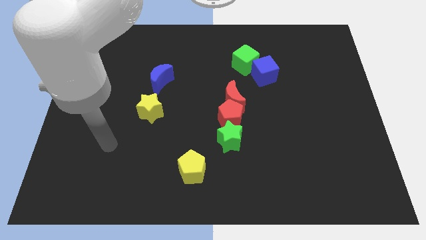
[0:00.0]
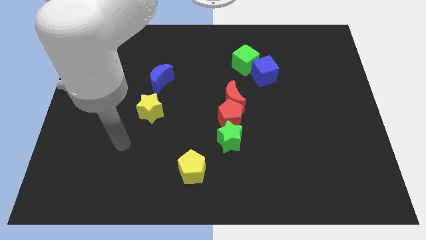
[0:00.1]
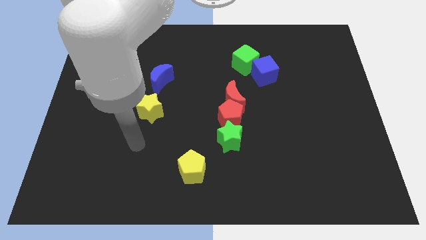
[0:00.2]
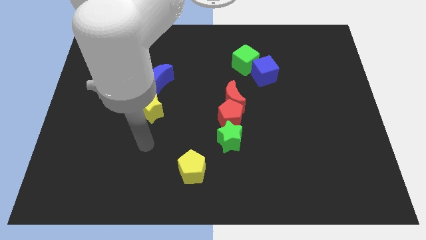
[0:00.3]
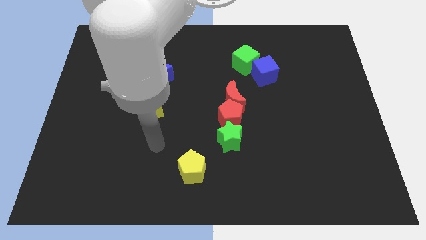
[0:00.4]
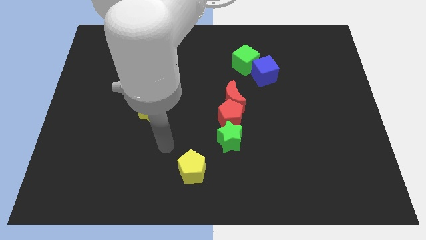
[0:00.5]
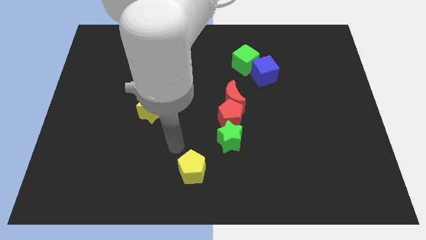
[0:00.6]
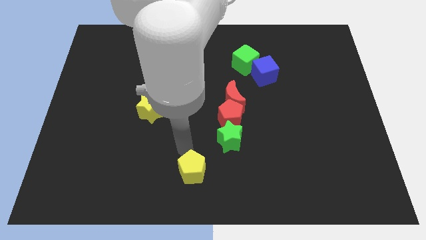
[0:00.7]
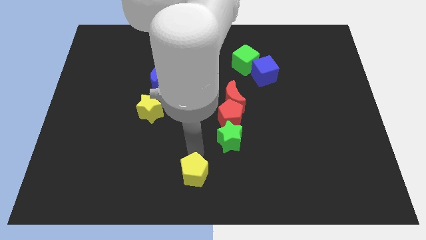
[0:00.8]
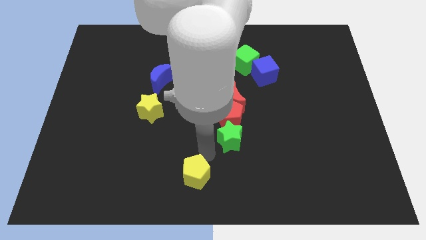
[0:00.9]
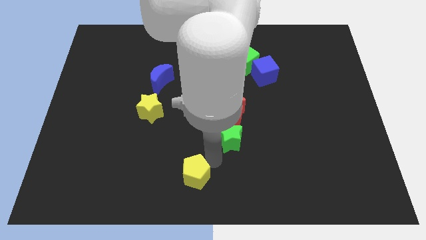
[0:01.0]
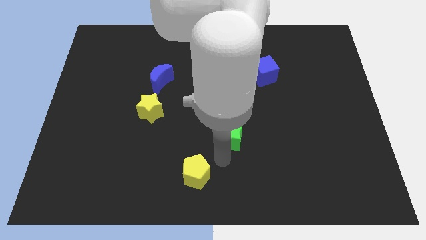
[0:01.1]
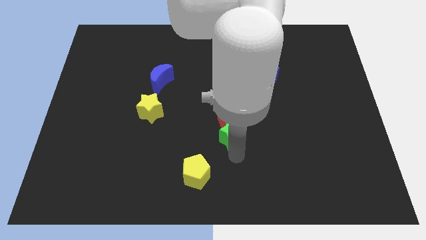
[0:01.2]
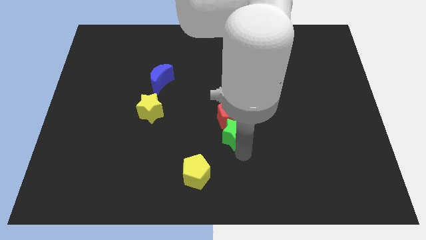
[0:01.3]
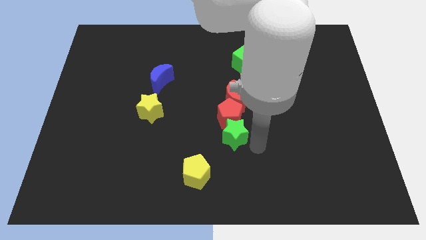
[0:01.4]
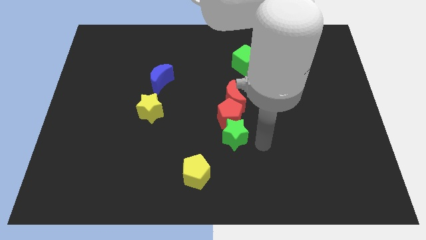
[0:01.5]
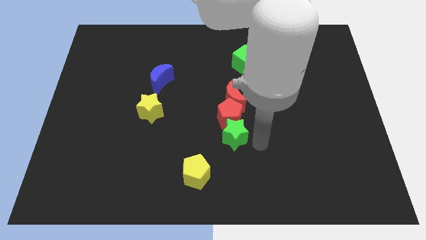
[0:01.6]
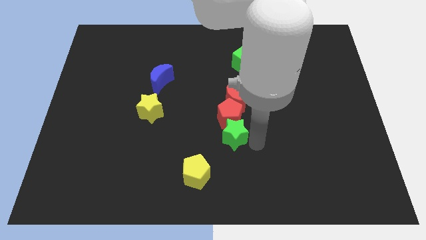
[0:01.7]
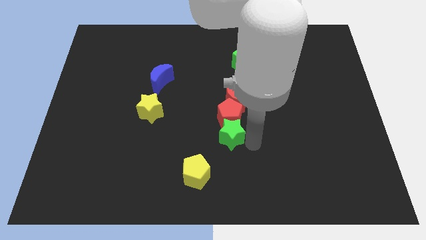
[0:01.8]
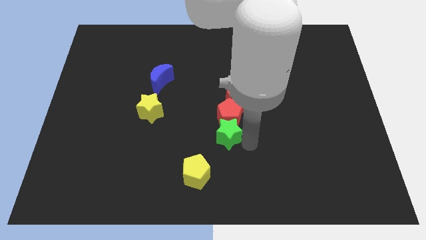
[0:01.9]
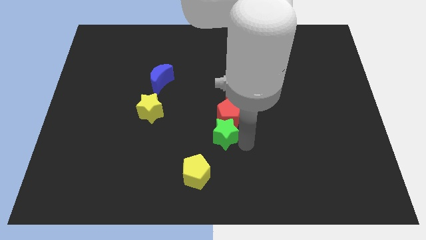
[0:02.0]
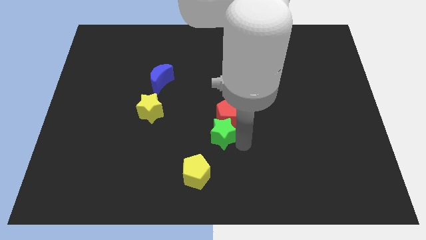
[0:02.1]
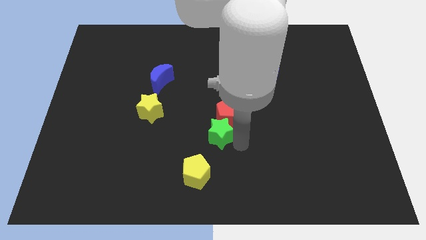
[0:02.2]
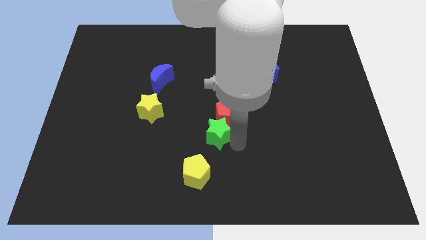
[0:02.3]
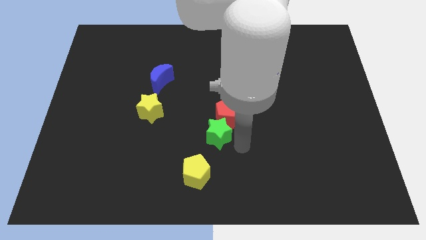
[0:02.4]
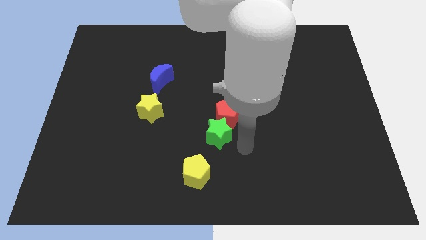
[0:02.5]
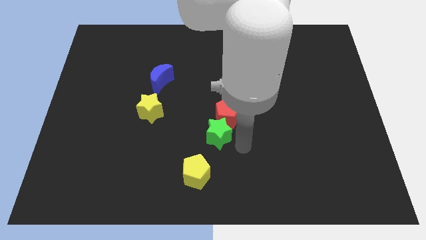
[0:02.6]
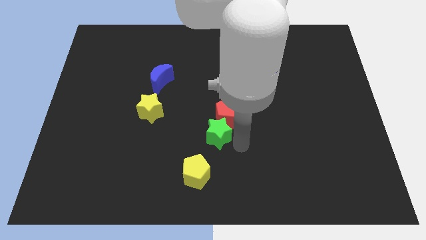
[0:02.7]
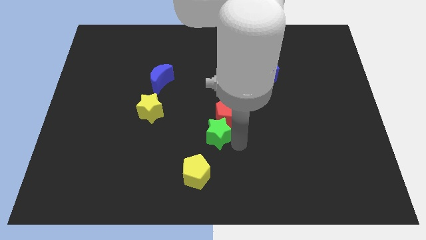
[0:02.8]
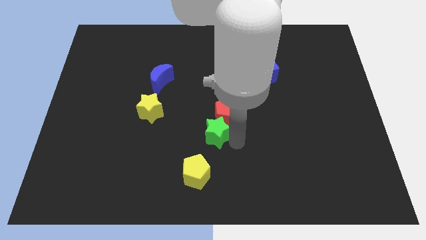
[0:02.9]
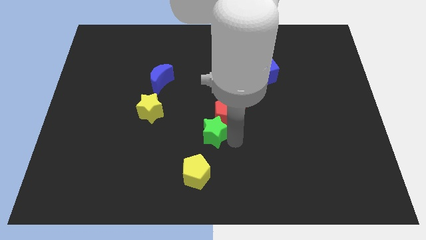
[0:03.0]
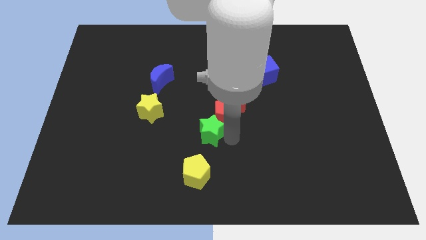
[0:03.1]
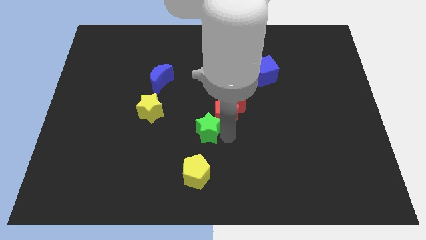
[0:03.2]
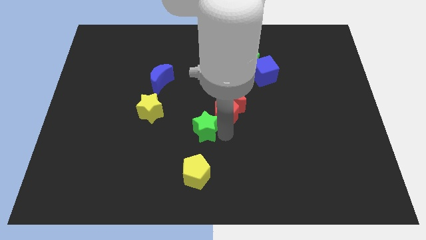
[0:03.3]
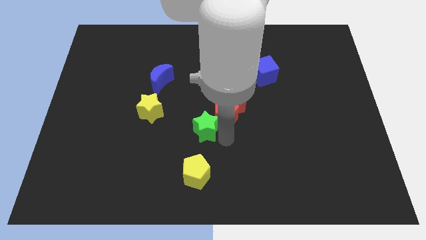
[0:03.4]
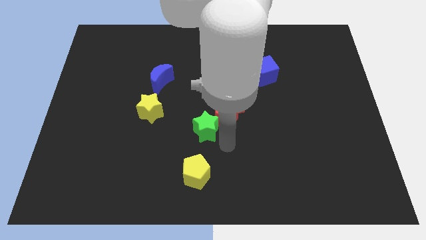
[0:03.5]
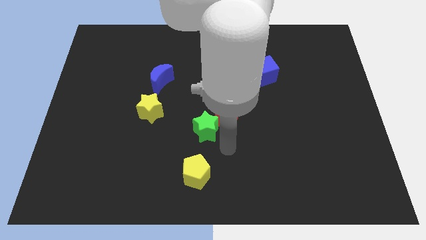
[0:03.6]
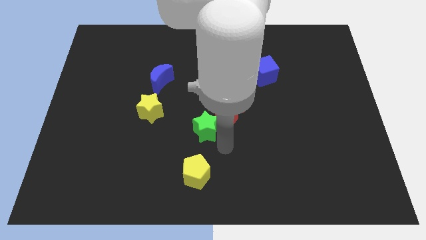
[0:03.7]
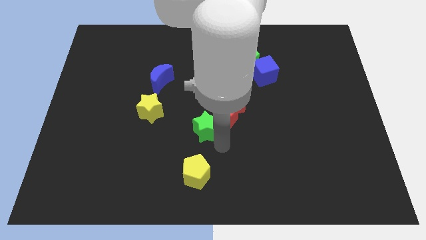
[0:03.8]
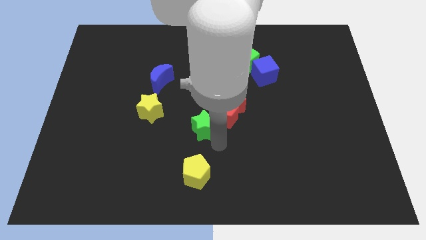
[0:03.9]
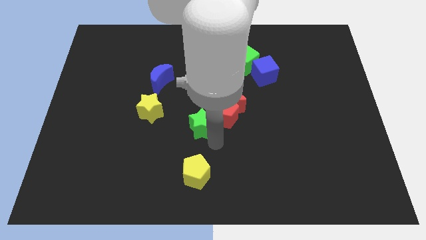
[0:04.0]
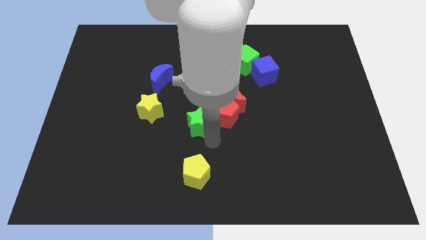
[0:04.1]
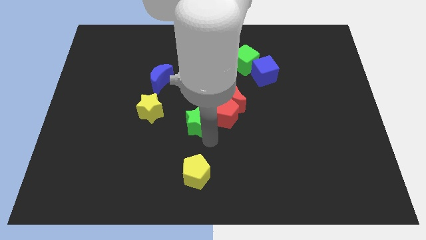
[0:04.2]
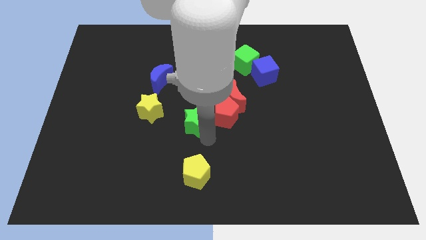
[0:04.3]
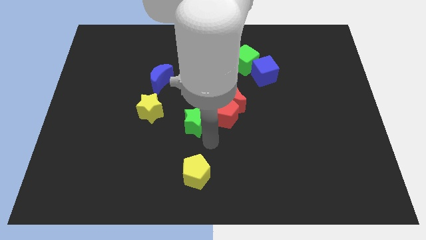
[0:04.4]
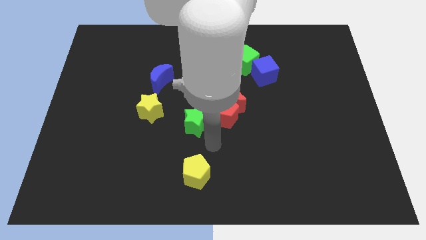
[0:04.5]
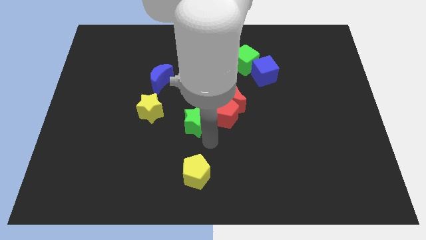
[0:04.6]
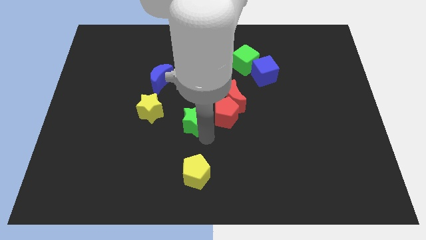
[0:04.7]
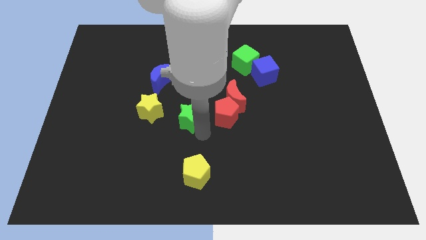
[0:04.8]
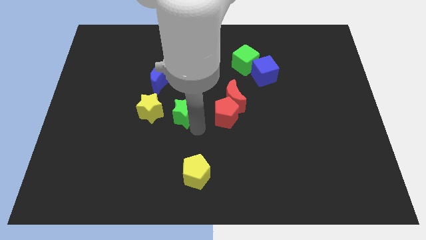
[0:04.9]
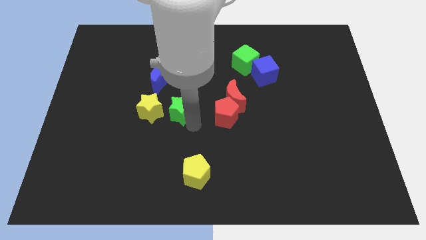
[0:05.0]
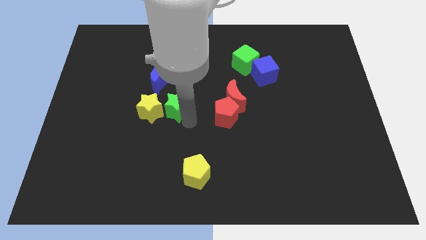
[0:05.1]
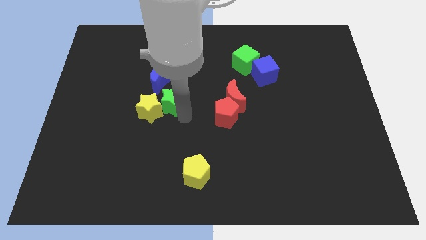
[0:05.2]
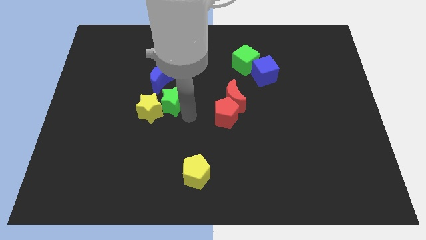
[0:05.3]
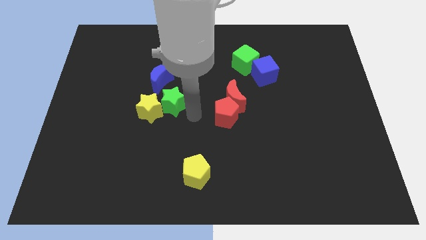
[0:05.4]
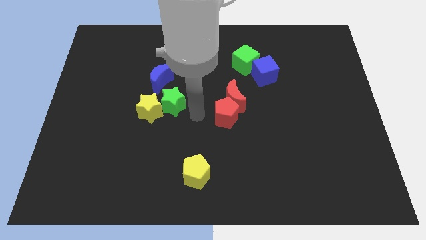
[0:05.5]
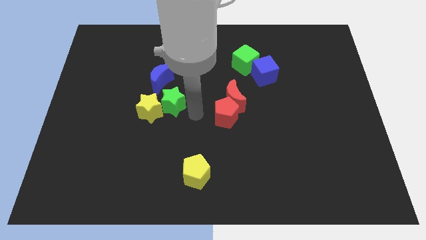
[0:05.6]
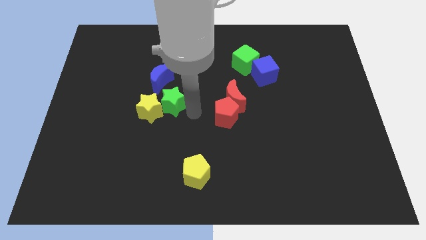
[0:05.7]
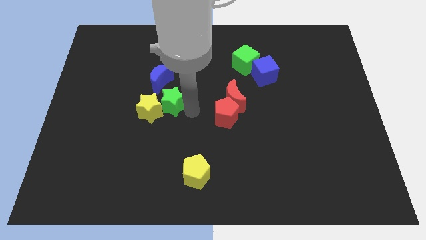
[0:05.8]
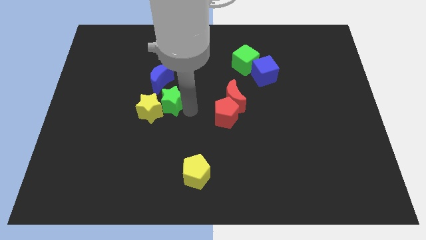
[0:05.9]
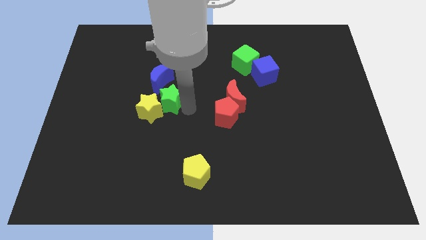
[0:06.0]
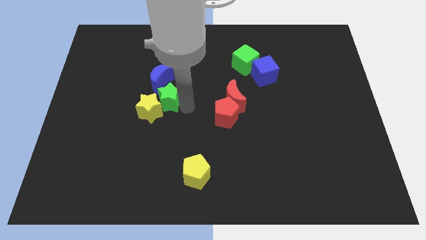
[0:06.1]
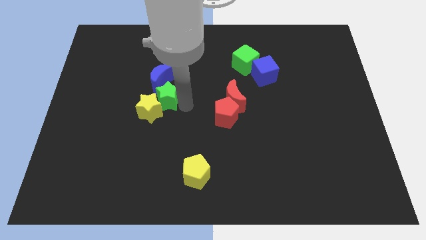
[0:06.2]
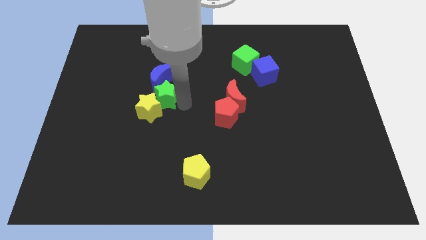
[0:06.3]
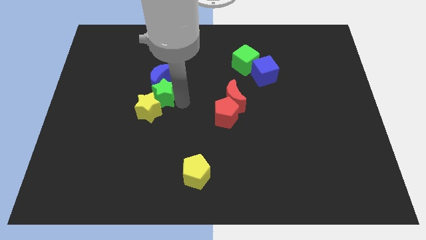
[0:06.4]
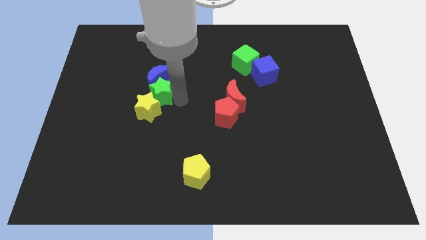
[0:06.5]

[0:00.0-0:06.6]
move the green star up and to the left diagonally

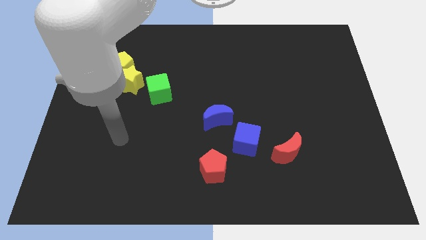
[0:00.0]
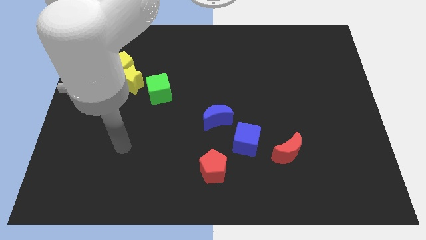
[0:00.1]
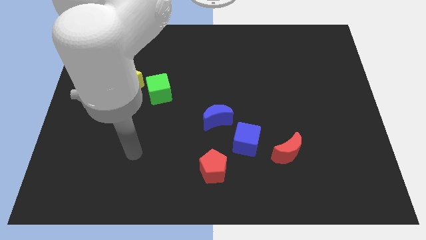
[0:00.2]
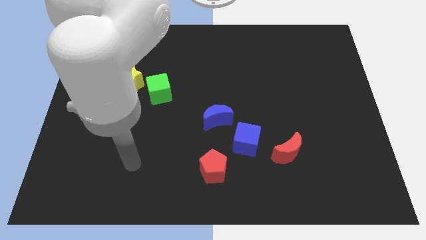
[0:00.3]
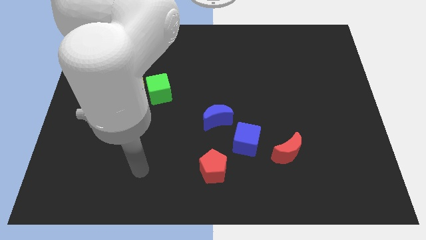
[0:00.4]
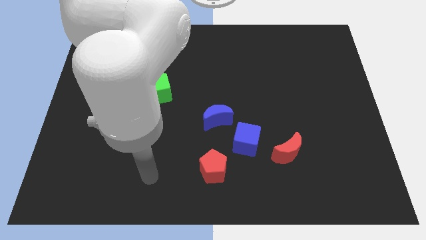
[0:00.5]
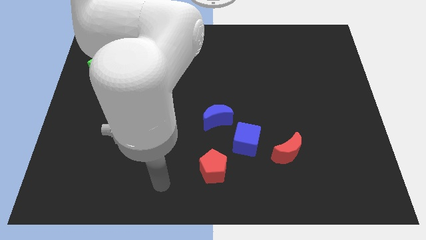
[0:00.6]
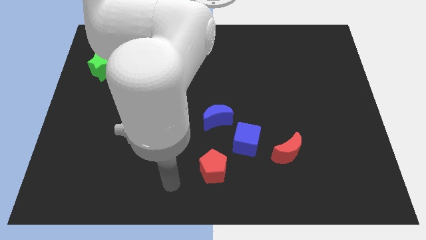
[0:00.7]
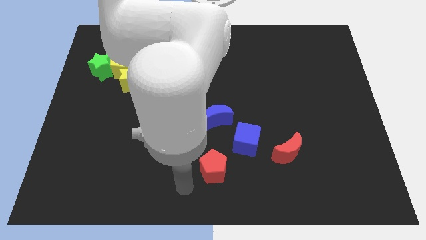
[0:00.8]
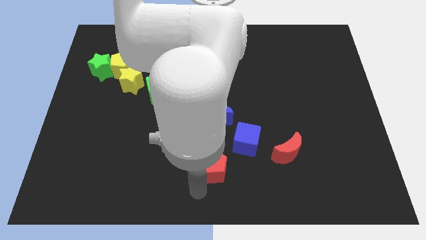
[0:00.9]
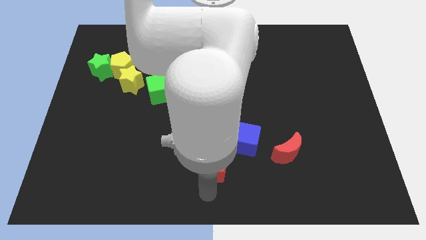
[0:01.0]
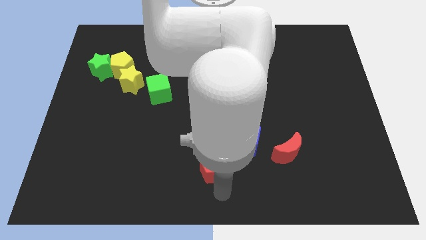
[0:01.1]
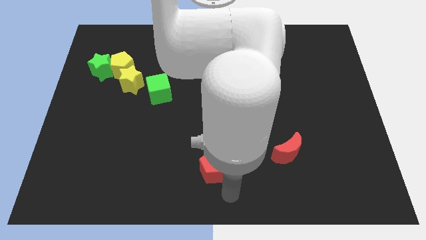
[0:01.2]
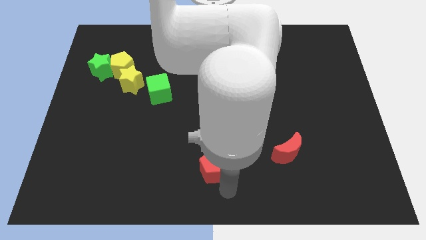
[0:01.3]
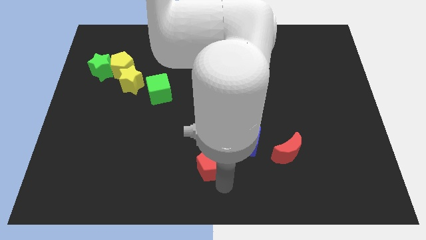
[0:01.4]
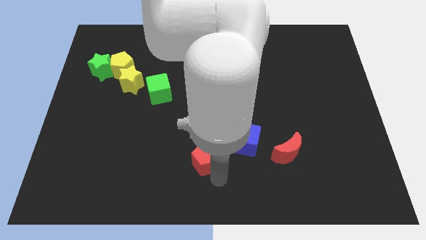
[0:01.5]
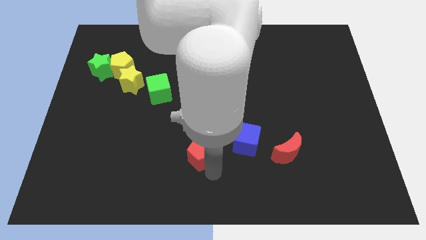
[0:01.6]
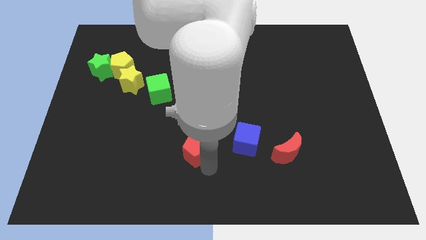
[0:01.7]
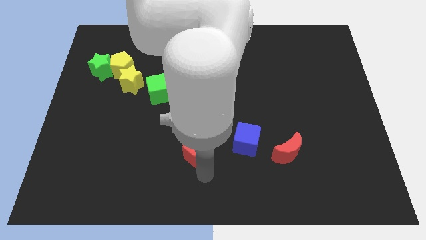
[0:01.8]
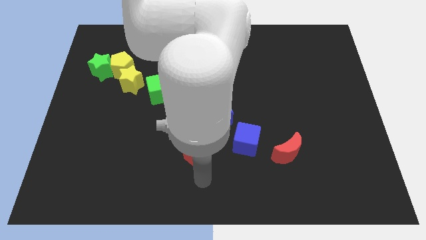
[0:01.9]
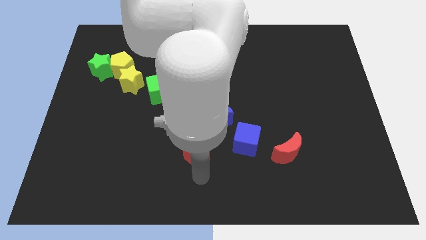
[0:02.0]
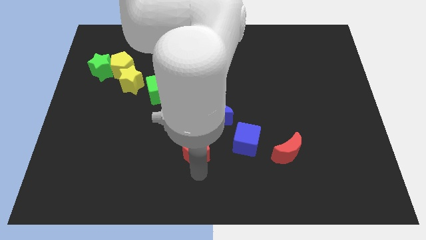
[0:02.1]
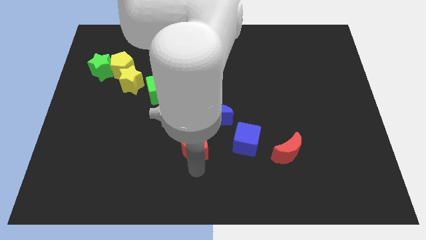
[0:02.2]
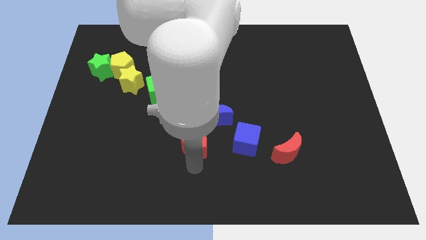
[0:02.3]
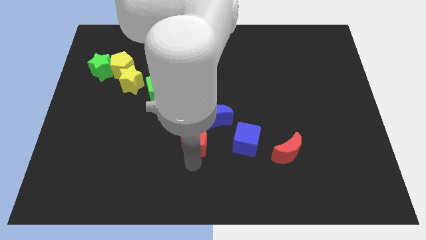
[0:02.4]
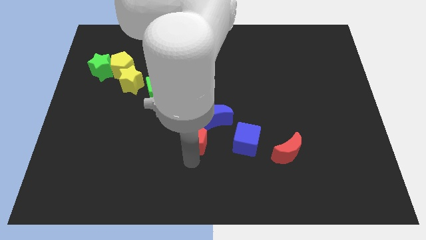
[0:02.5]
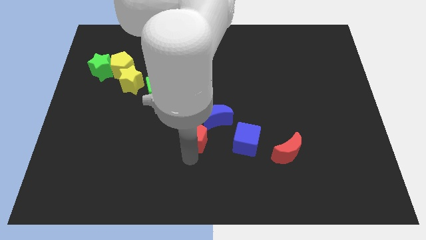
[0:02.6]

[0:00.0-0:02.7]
move the red pentagon slightly upwards
